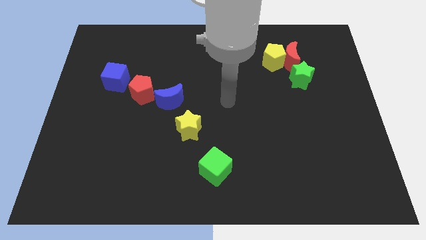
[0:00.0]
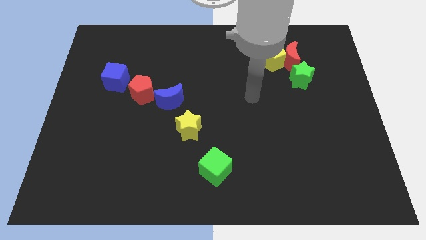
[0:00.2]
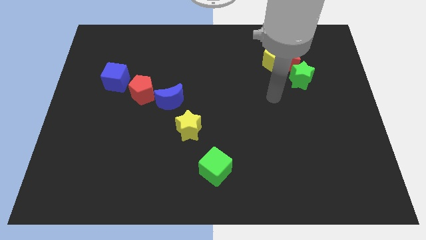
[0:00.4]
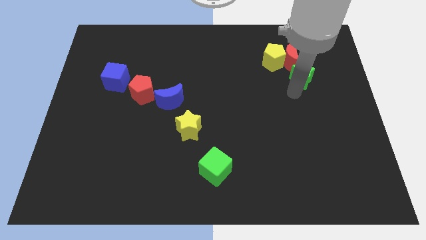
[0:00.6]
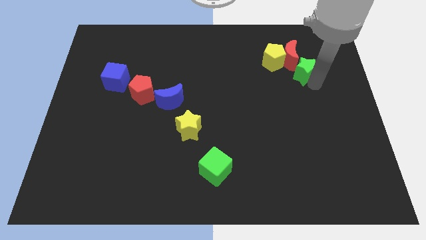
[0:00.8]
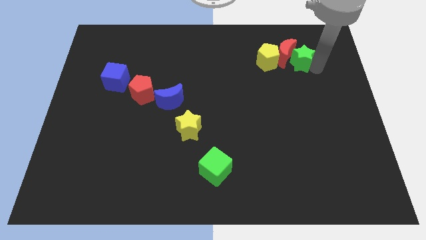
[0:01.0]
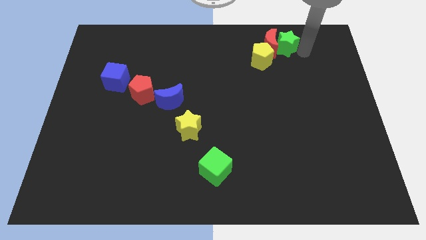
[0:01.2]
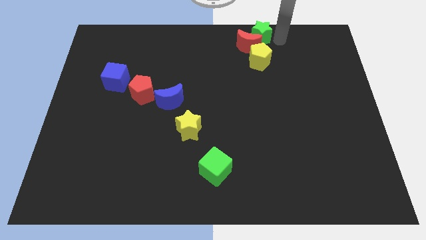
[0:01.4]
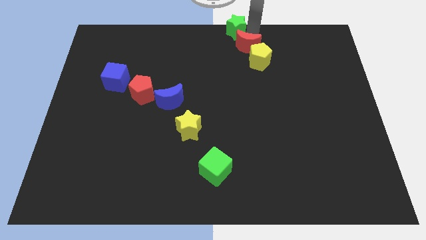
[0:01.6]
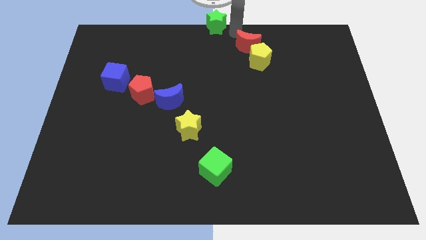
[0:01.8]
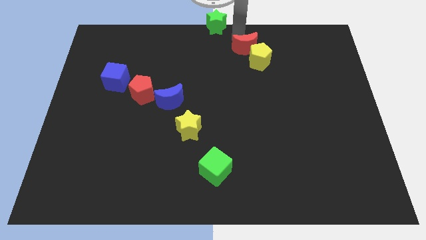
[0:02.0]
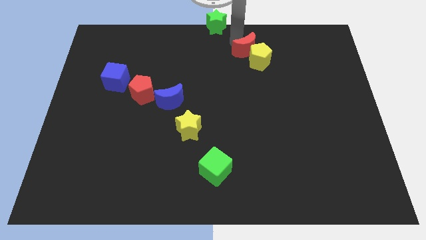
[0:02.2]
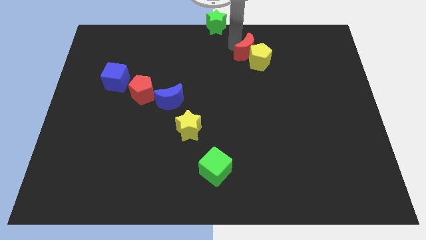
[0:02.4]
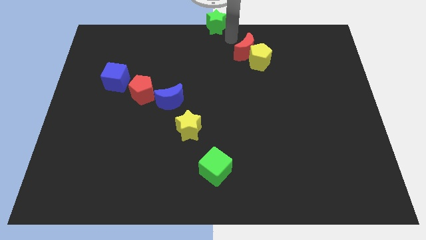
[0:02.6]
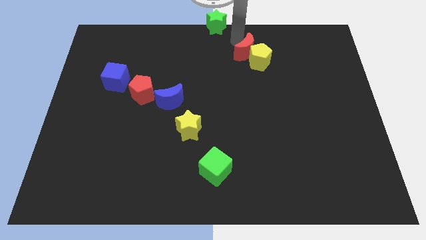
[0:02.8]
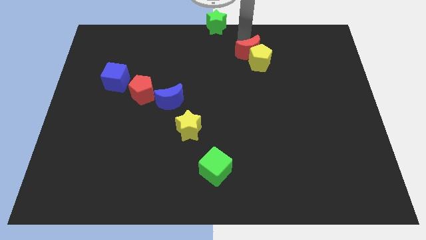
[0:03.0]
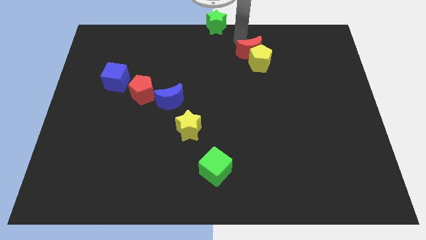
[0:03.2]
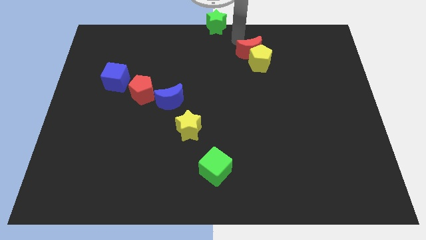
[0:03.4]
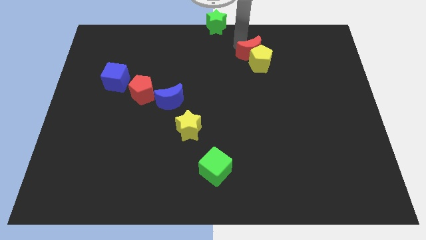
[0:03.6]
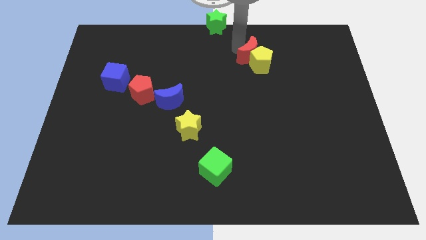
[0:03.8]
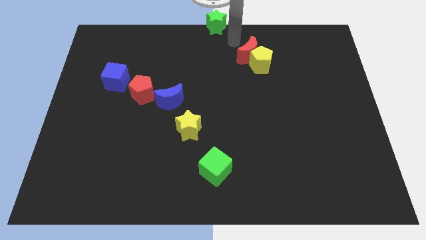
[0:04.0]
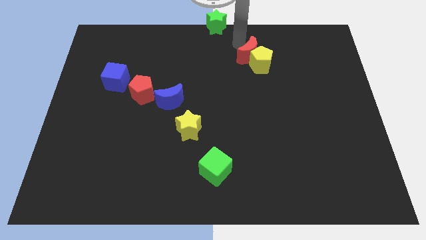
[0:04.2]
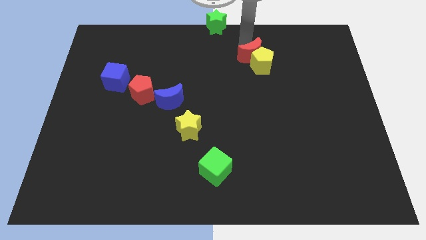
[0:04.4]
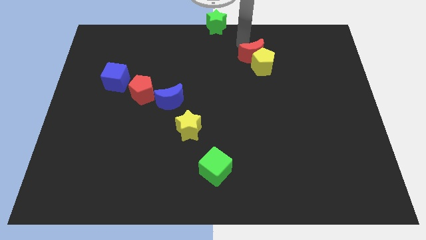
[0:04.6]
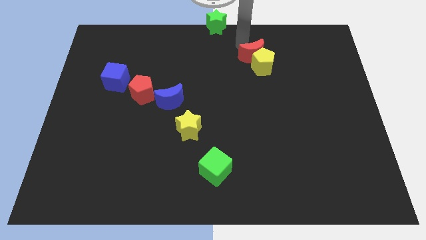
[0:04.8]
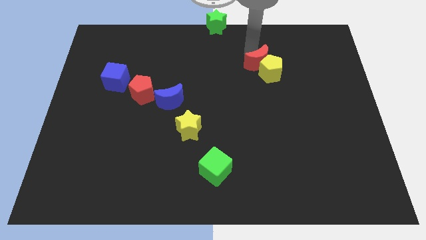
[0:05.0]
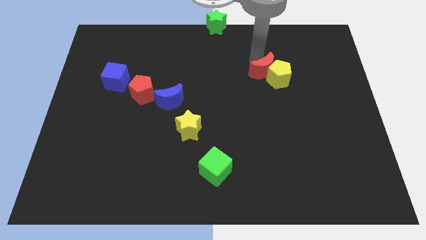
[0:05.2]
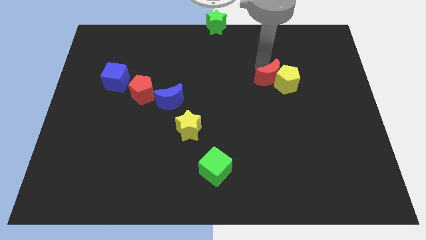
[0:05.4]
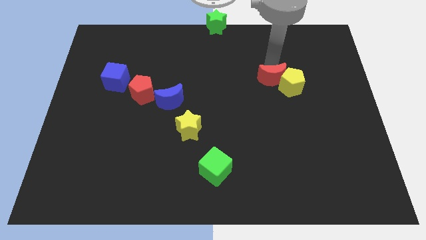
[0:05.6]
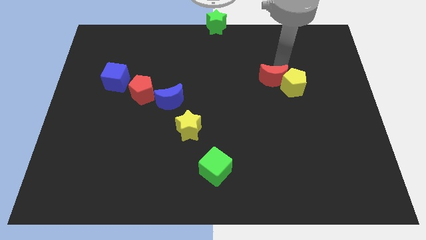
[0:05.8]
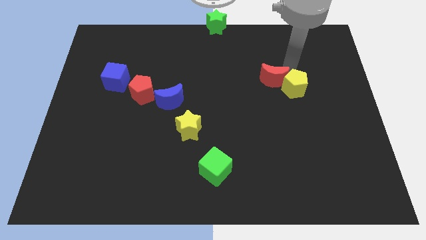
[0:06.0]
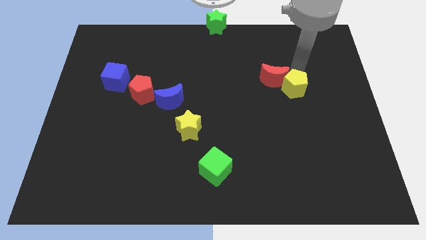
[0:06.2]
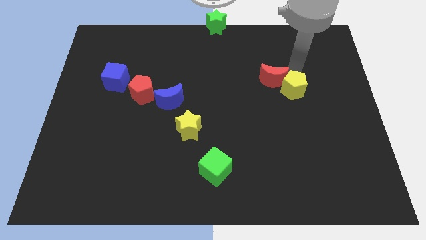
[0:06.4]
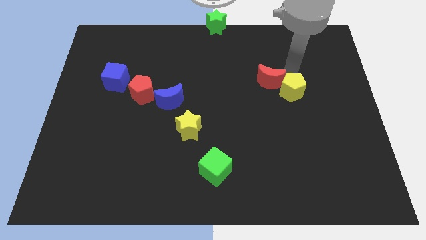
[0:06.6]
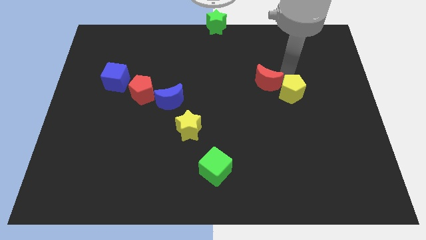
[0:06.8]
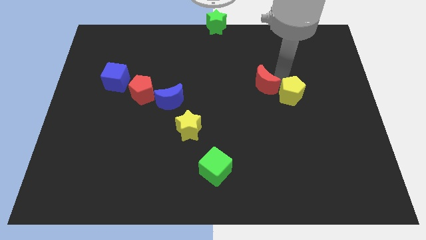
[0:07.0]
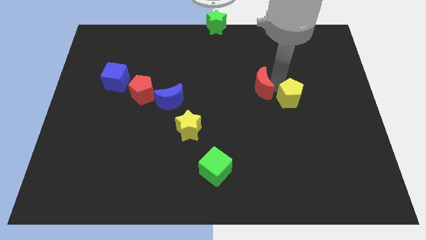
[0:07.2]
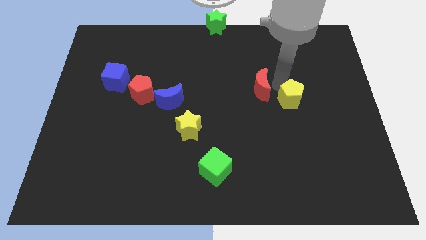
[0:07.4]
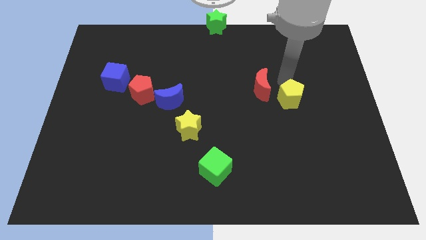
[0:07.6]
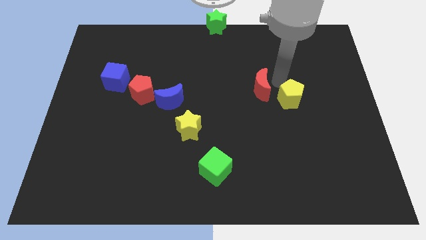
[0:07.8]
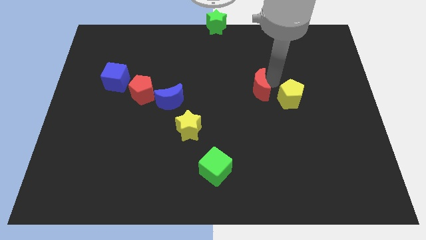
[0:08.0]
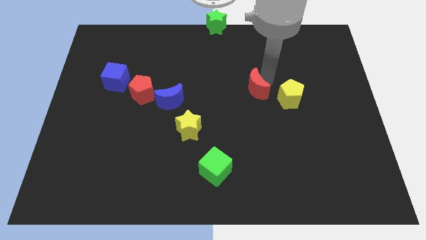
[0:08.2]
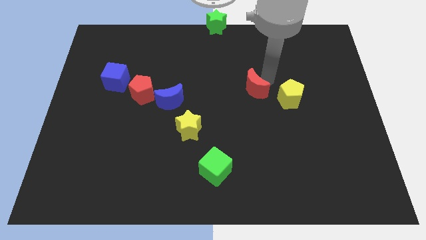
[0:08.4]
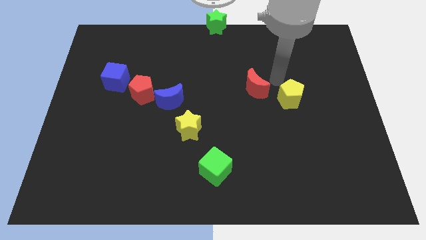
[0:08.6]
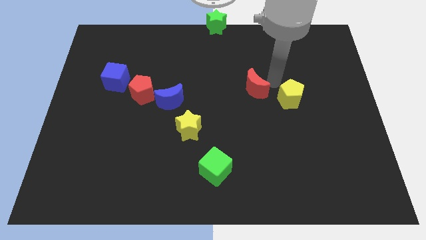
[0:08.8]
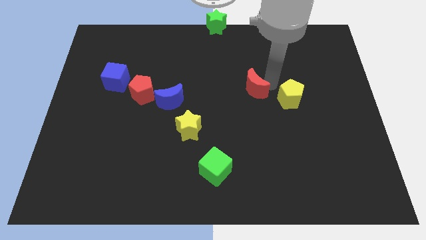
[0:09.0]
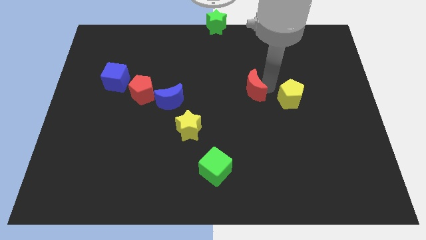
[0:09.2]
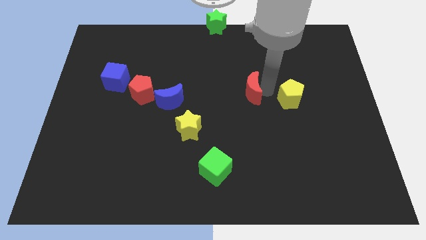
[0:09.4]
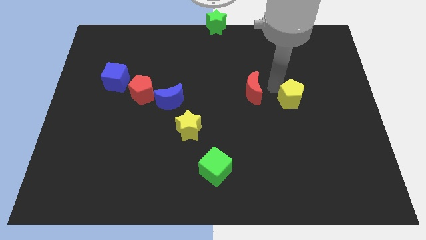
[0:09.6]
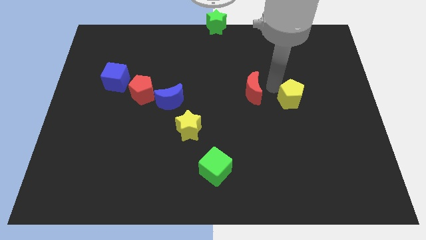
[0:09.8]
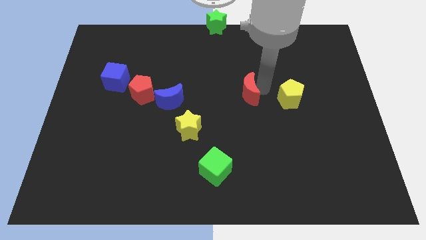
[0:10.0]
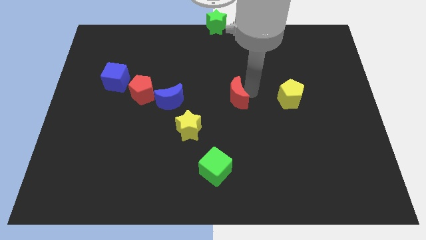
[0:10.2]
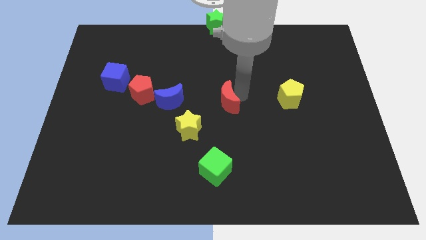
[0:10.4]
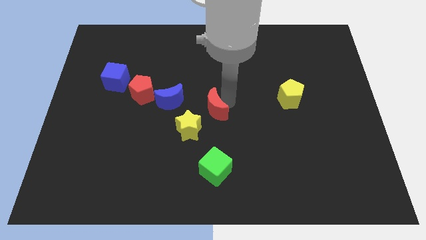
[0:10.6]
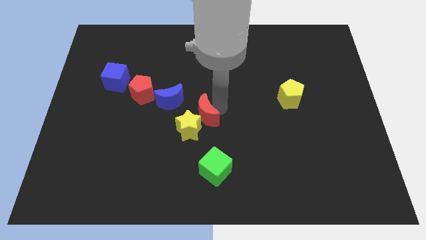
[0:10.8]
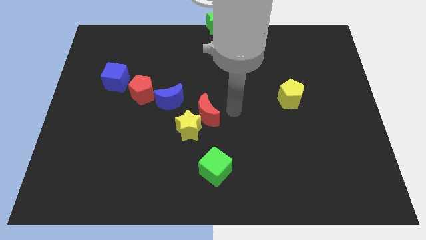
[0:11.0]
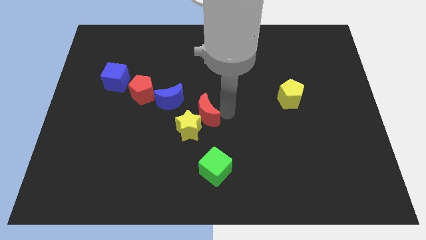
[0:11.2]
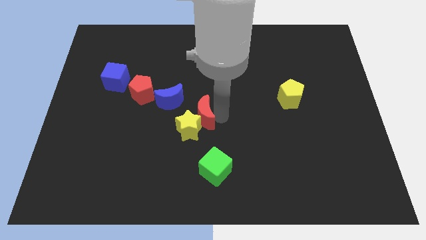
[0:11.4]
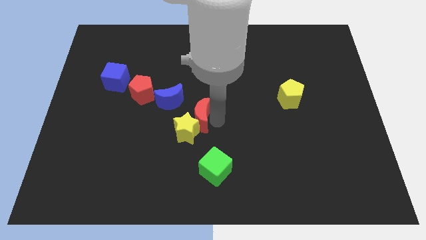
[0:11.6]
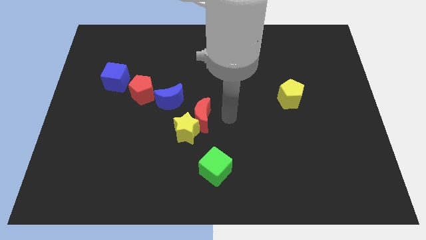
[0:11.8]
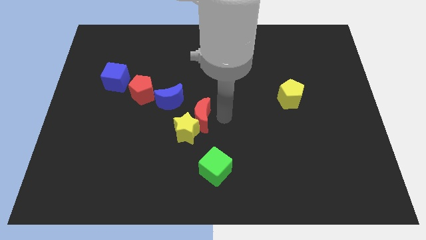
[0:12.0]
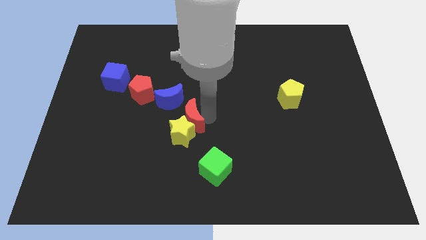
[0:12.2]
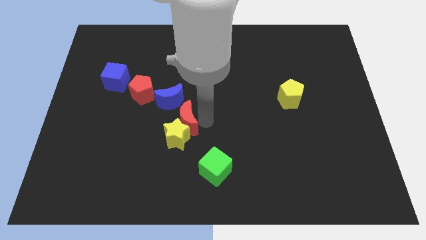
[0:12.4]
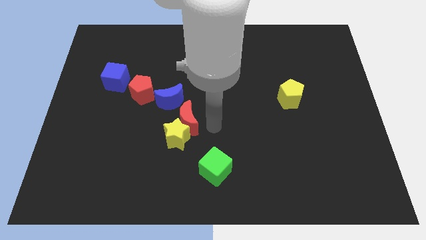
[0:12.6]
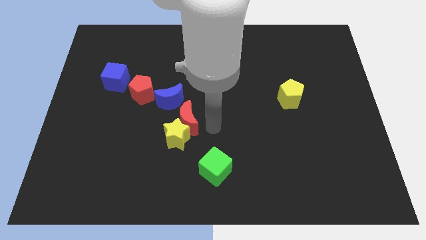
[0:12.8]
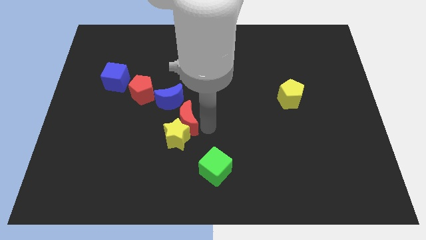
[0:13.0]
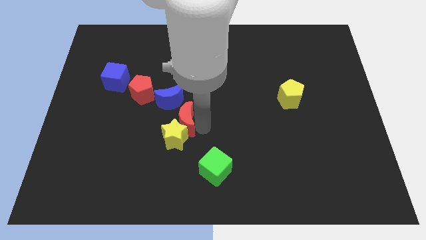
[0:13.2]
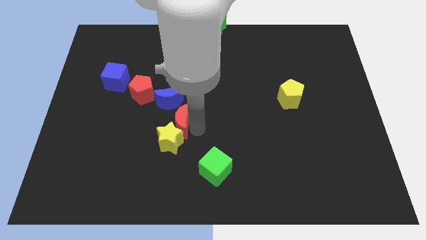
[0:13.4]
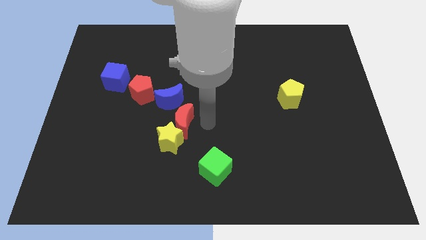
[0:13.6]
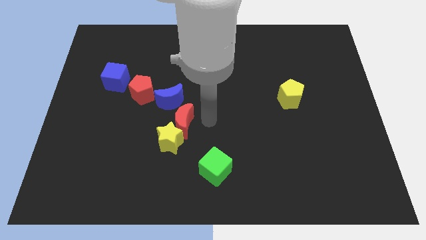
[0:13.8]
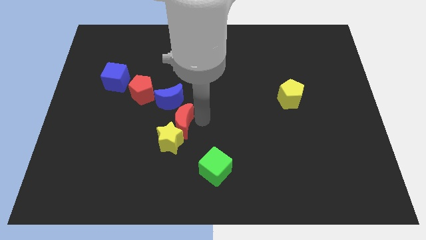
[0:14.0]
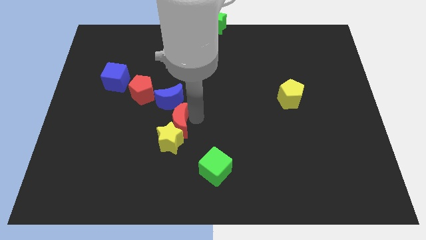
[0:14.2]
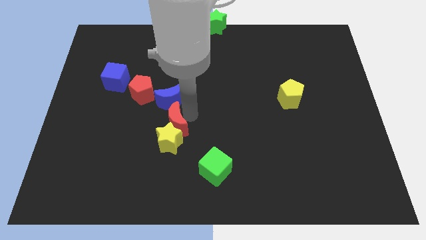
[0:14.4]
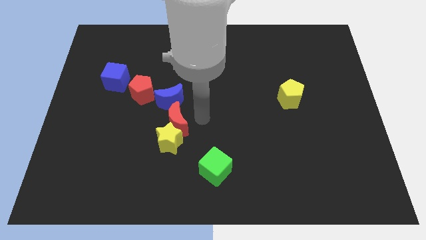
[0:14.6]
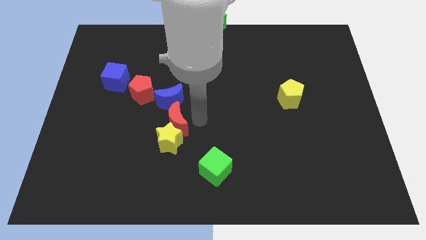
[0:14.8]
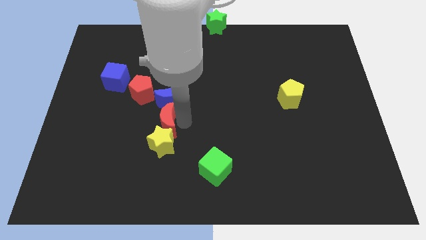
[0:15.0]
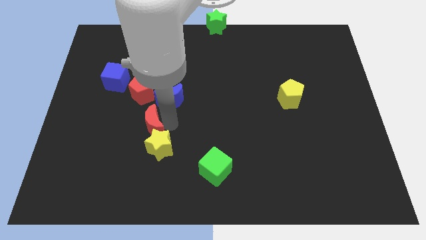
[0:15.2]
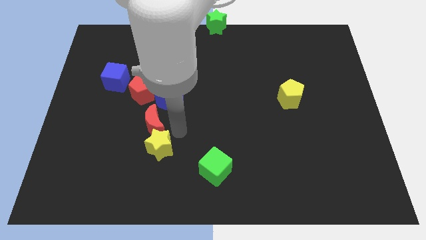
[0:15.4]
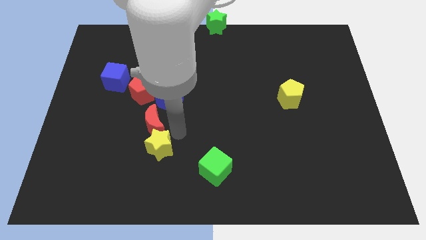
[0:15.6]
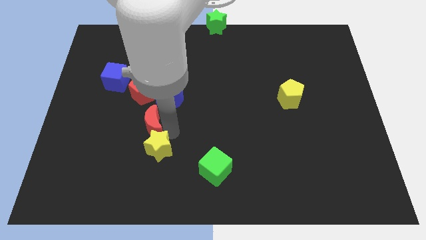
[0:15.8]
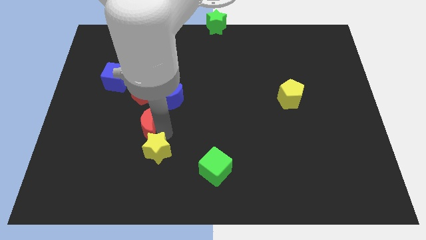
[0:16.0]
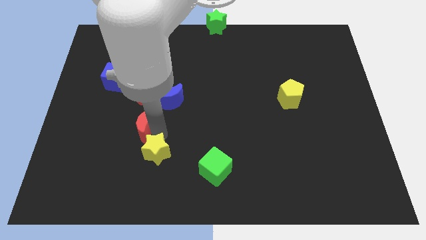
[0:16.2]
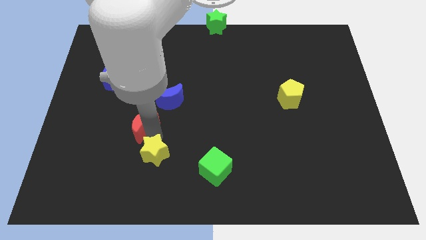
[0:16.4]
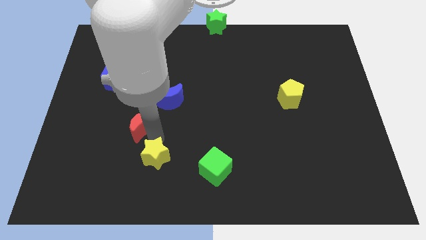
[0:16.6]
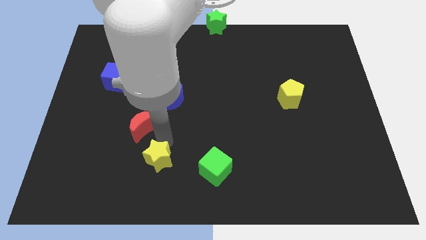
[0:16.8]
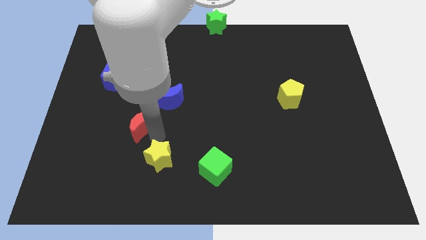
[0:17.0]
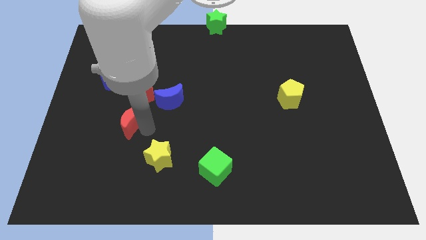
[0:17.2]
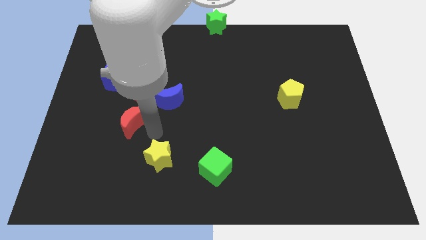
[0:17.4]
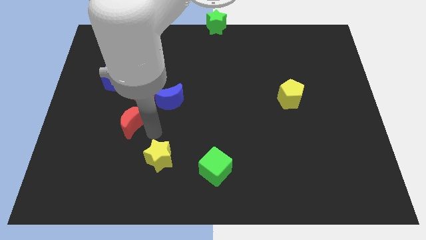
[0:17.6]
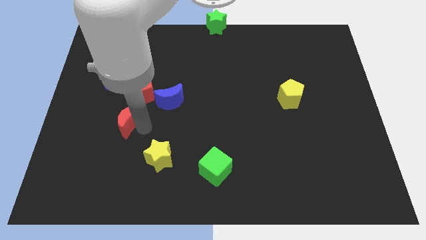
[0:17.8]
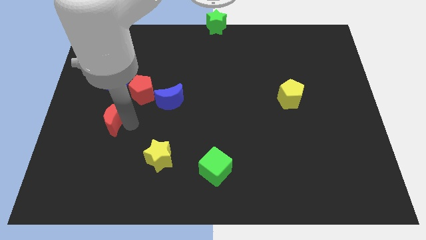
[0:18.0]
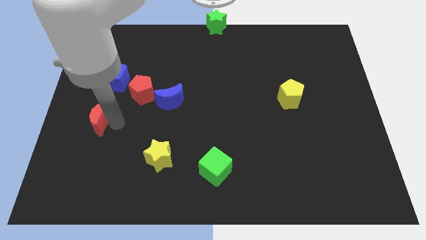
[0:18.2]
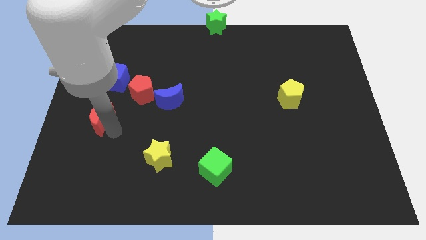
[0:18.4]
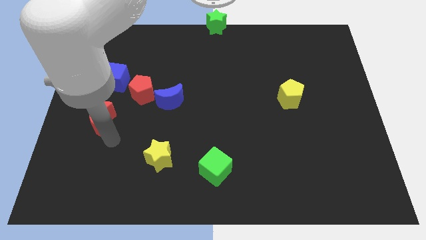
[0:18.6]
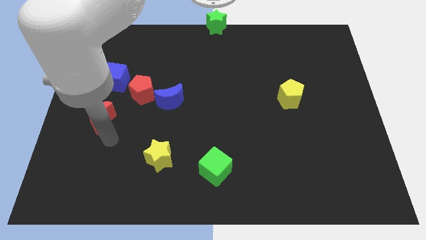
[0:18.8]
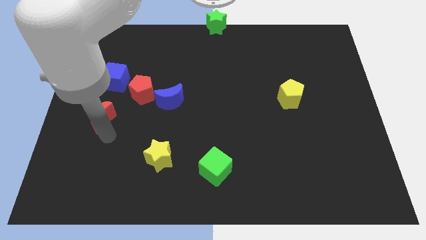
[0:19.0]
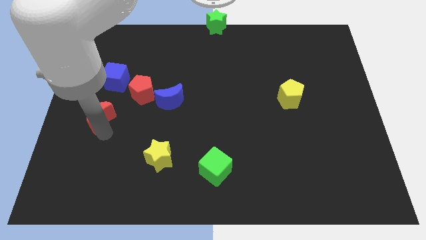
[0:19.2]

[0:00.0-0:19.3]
put the red moon to the left side
